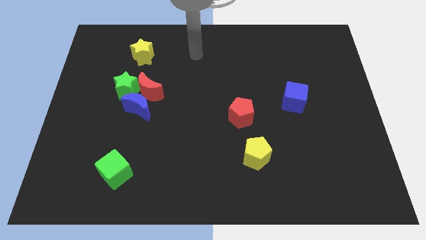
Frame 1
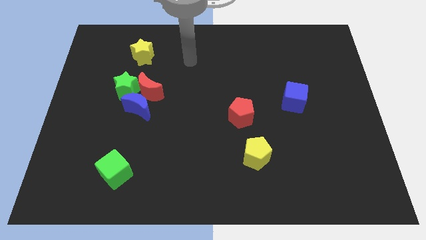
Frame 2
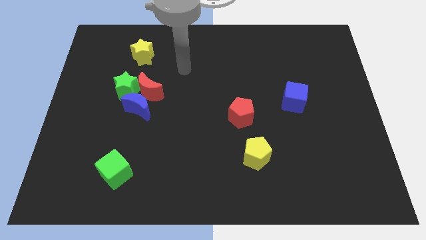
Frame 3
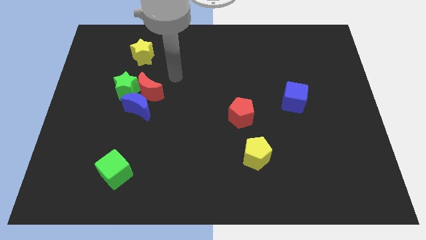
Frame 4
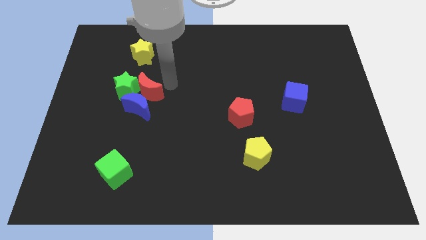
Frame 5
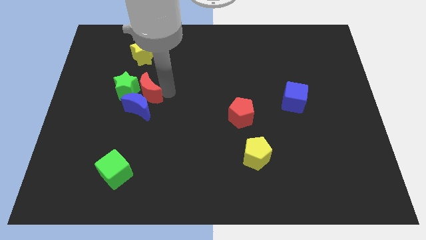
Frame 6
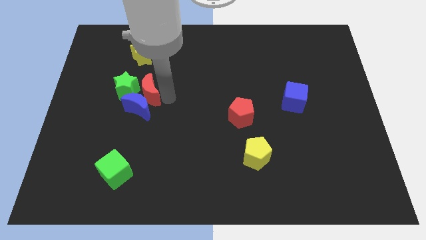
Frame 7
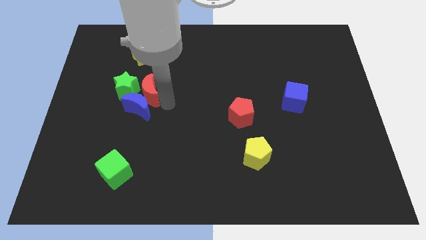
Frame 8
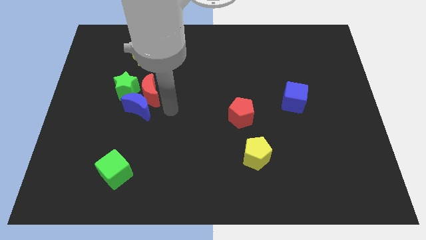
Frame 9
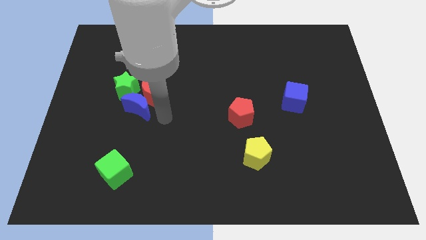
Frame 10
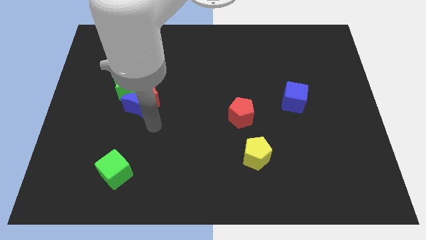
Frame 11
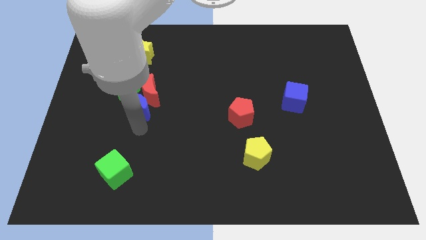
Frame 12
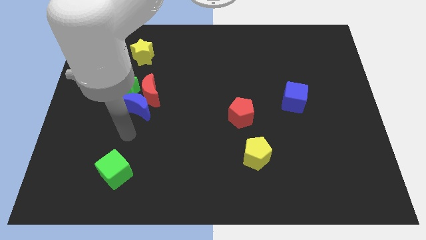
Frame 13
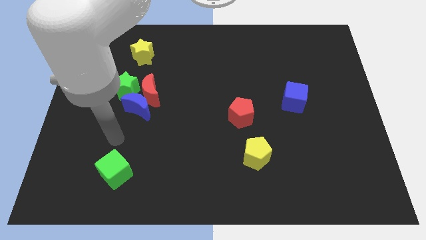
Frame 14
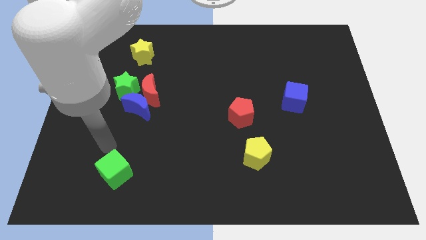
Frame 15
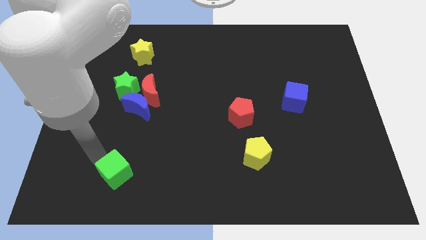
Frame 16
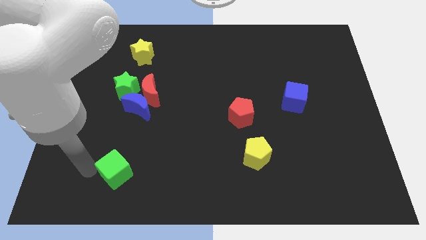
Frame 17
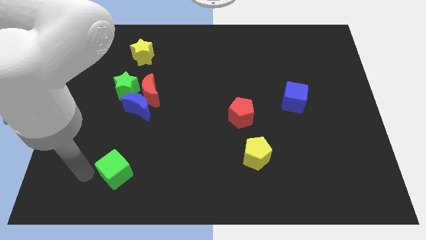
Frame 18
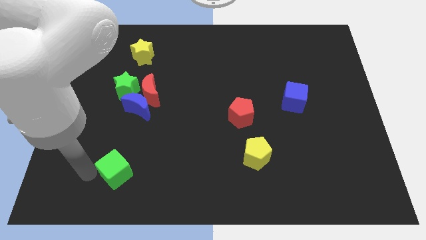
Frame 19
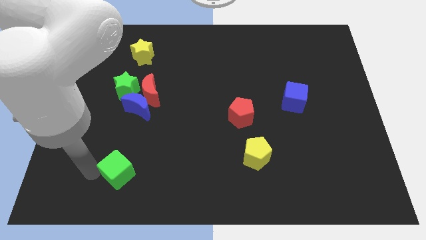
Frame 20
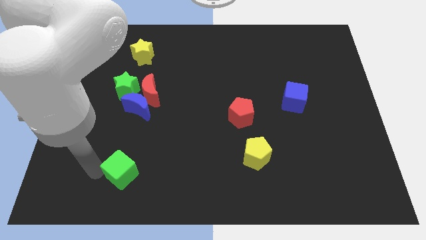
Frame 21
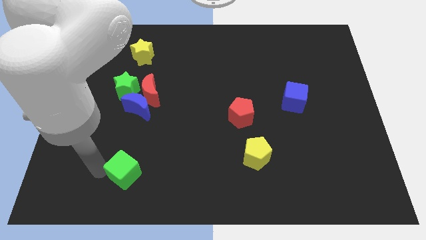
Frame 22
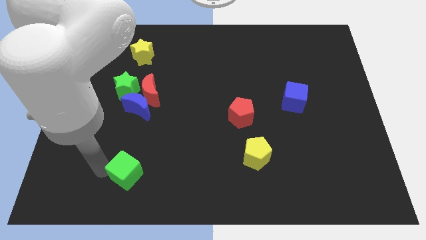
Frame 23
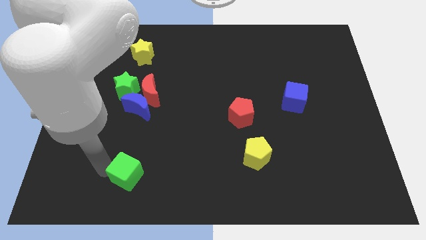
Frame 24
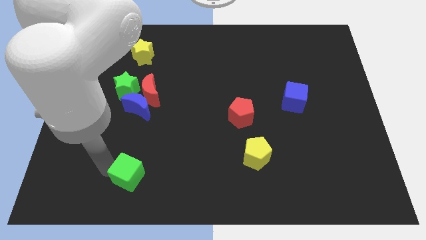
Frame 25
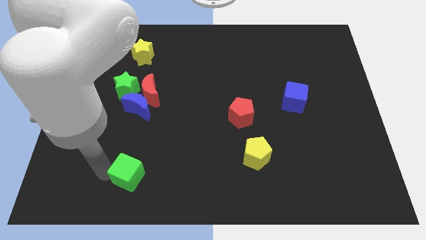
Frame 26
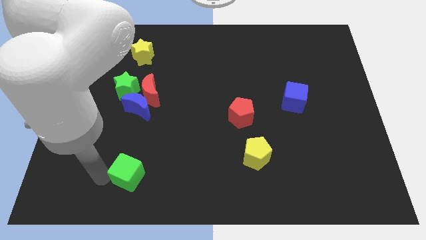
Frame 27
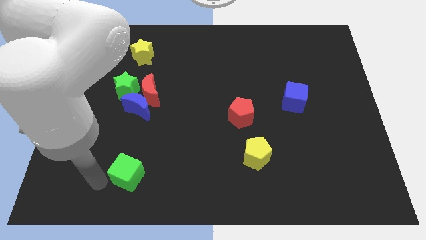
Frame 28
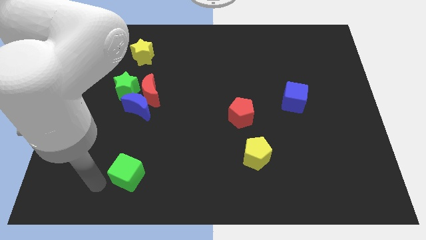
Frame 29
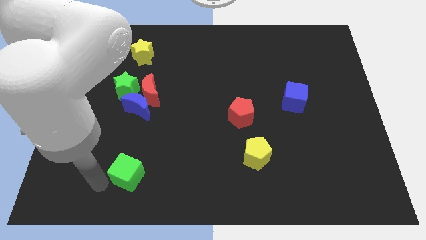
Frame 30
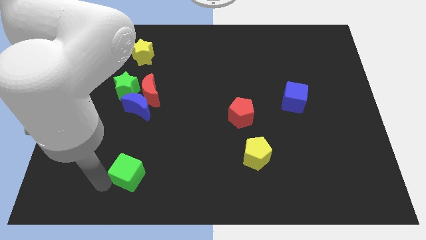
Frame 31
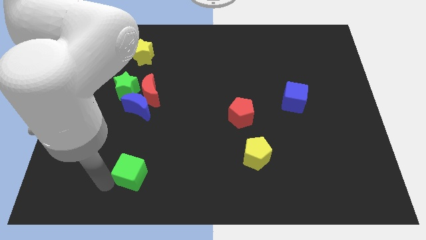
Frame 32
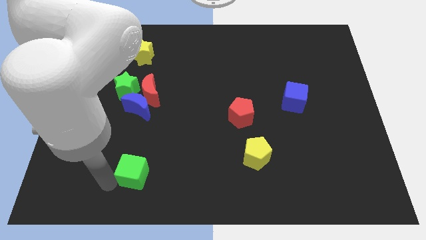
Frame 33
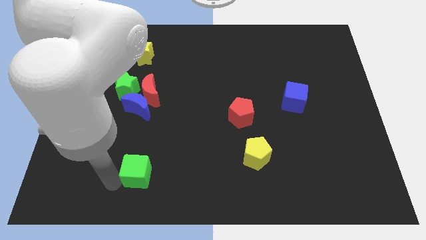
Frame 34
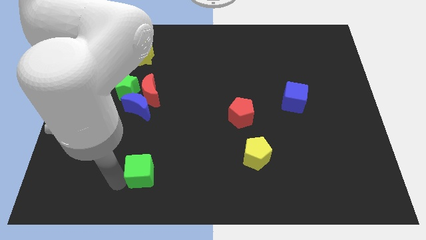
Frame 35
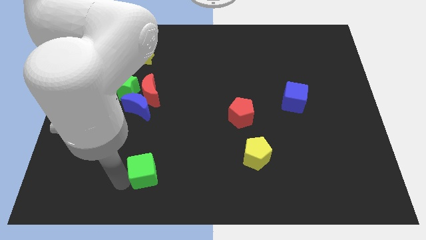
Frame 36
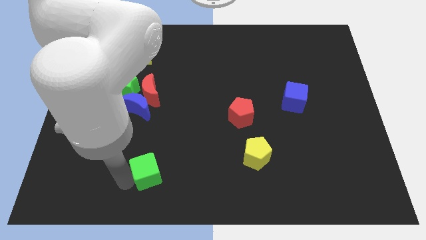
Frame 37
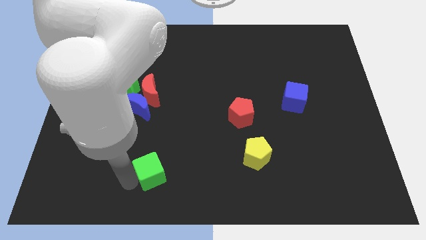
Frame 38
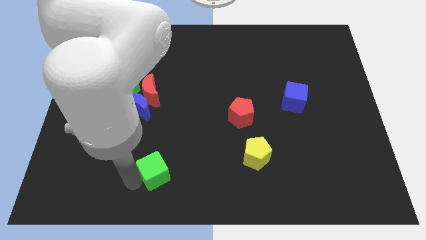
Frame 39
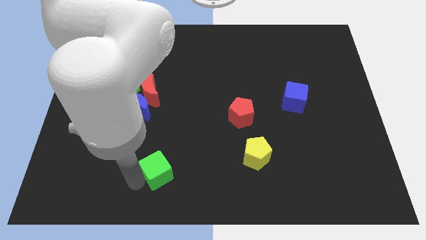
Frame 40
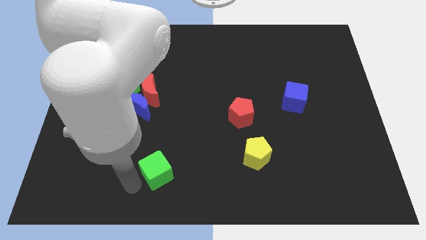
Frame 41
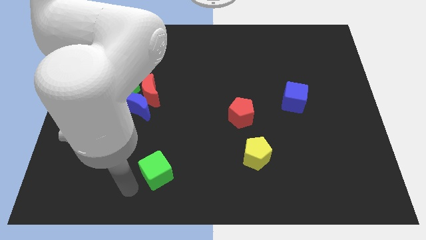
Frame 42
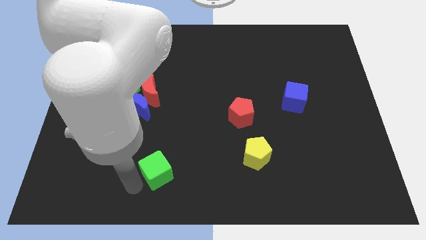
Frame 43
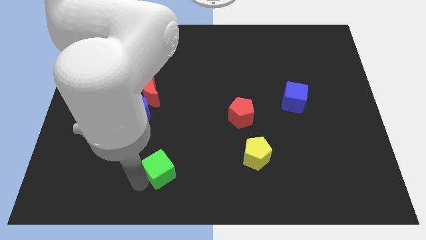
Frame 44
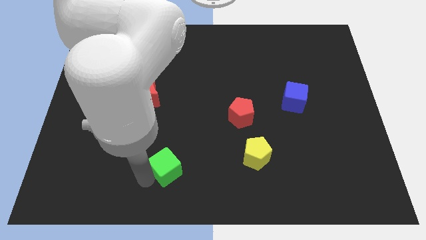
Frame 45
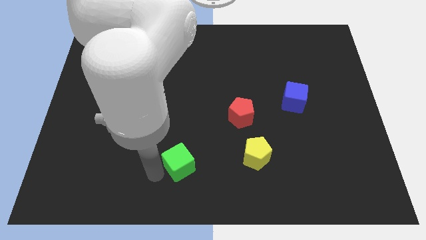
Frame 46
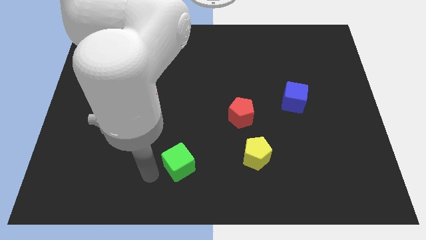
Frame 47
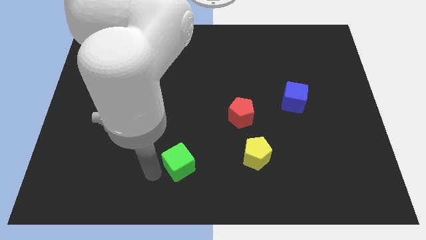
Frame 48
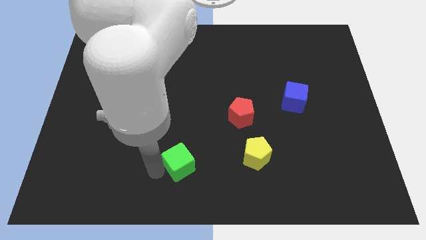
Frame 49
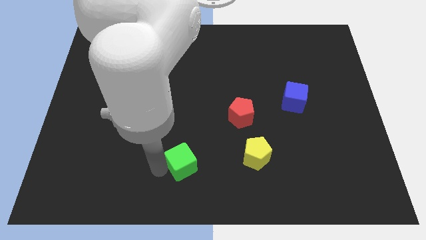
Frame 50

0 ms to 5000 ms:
put the green cube just left of the yellow pentagon

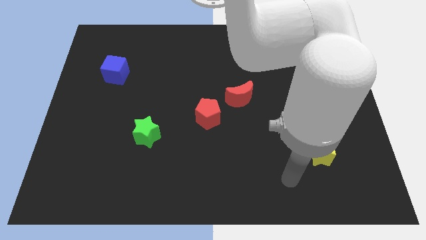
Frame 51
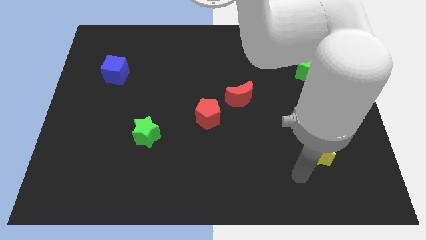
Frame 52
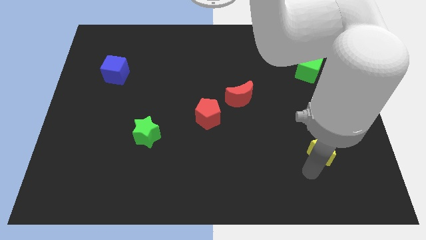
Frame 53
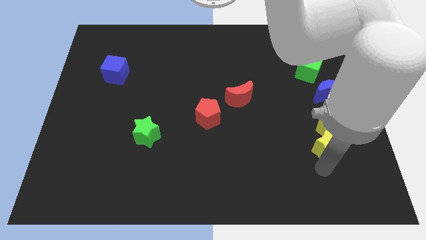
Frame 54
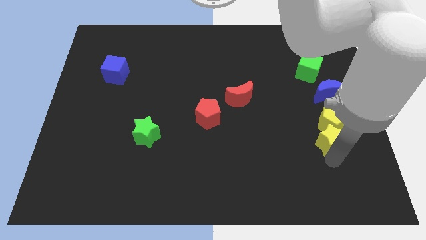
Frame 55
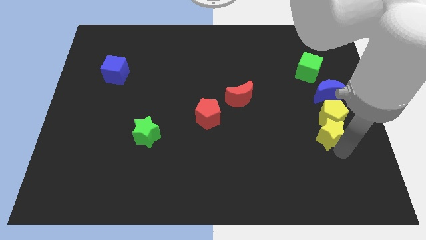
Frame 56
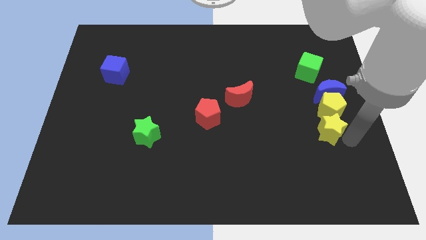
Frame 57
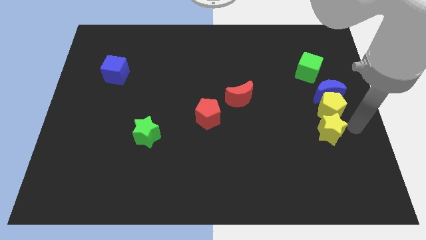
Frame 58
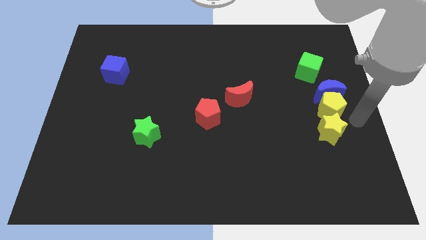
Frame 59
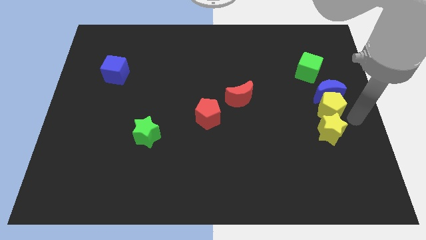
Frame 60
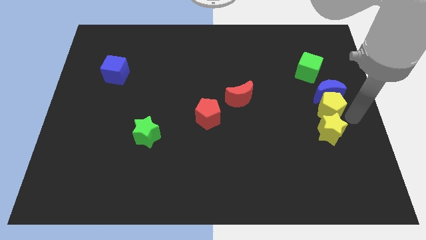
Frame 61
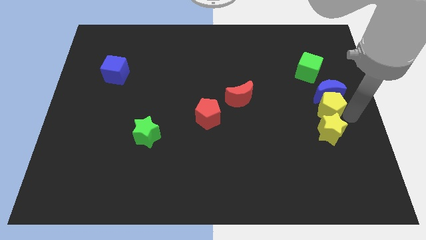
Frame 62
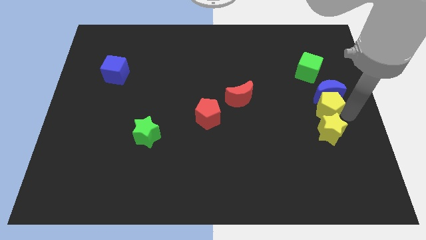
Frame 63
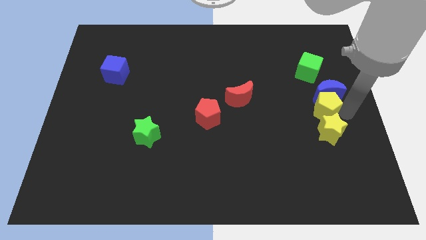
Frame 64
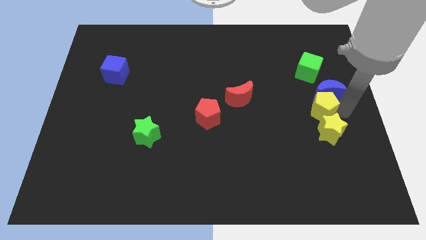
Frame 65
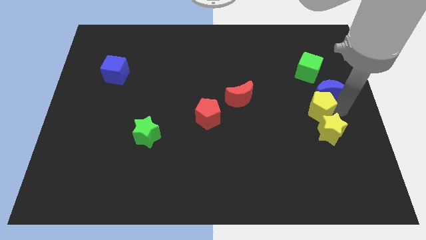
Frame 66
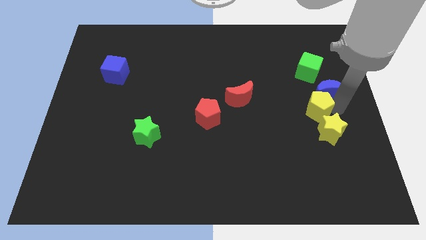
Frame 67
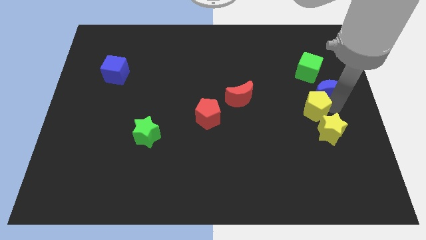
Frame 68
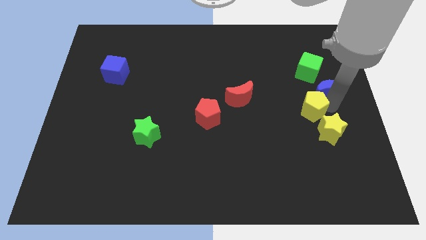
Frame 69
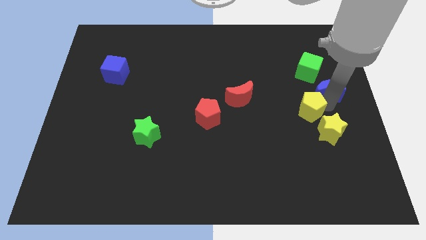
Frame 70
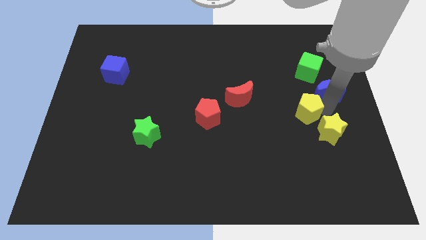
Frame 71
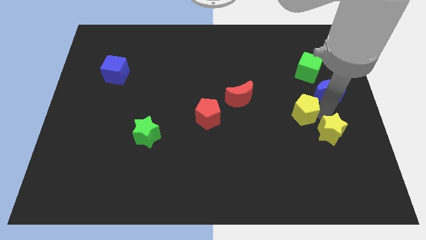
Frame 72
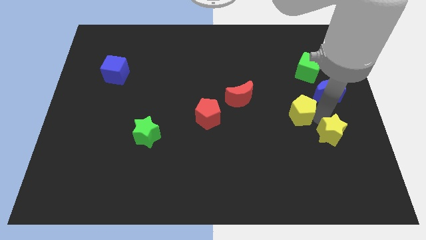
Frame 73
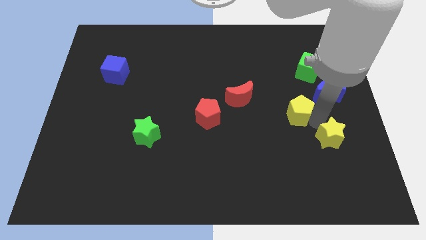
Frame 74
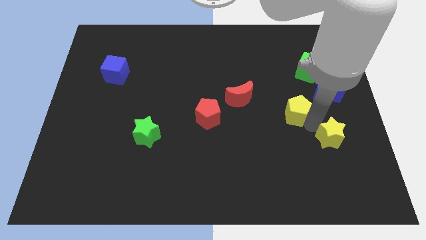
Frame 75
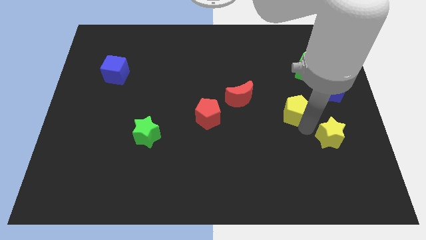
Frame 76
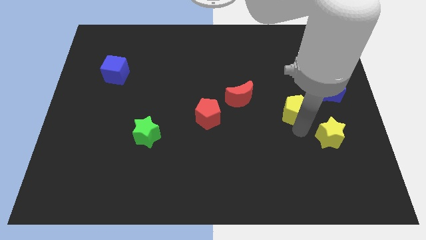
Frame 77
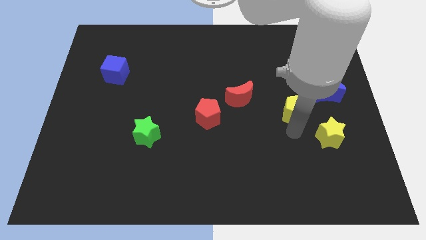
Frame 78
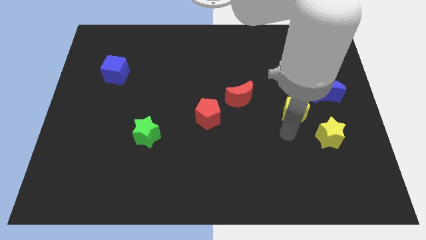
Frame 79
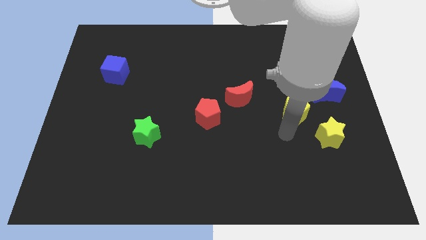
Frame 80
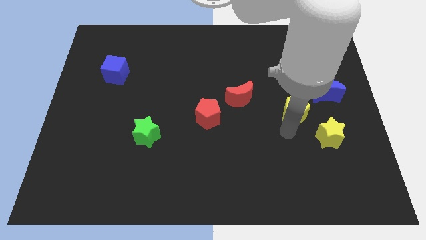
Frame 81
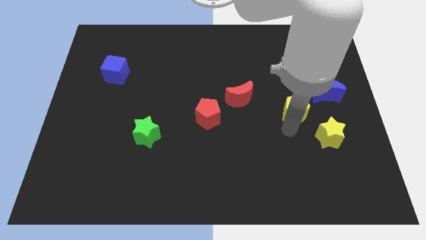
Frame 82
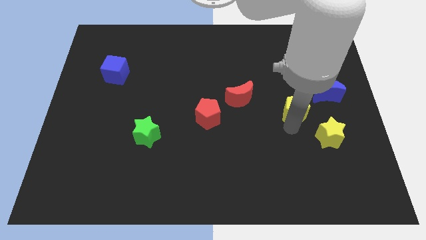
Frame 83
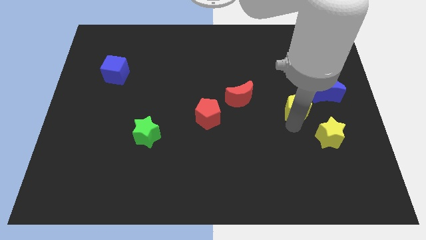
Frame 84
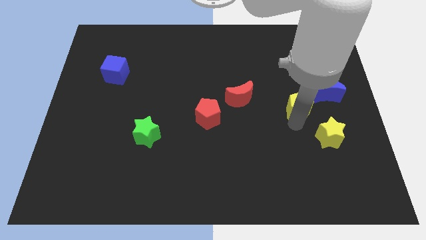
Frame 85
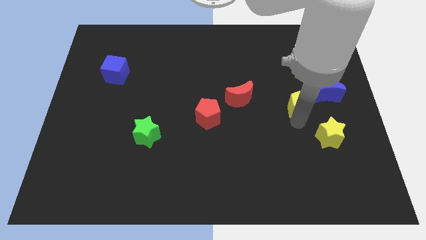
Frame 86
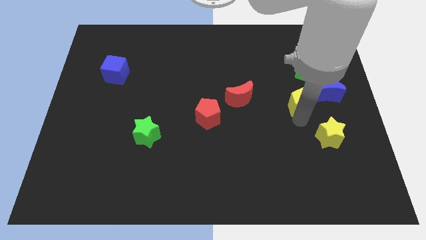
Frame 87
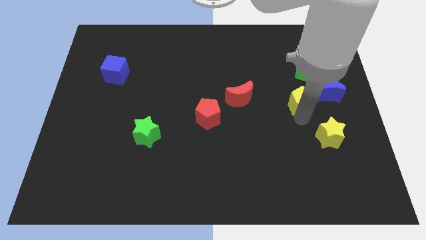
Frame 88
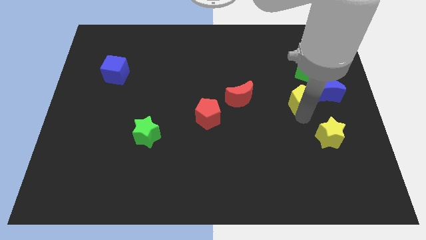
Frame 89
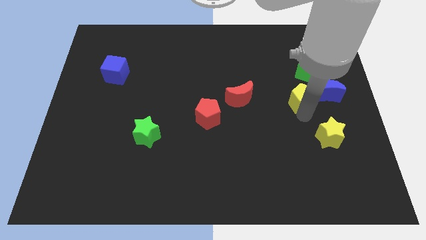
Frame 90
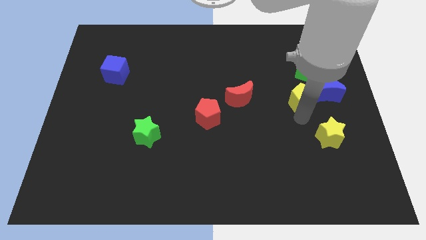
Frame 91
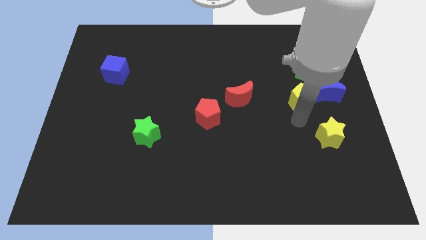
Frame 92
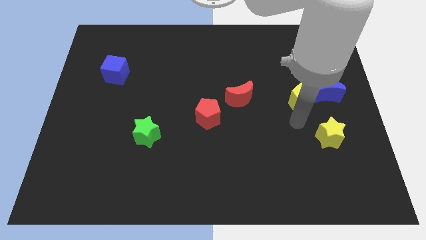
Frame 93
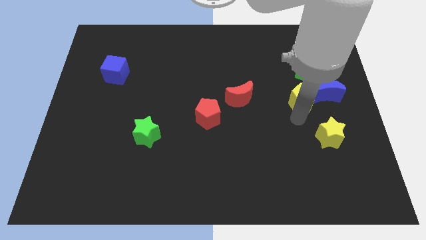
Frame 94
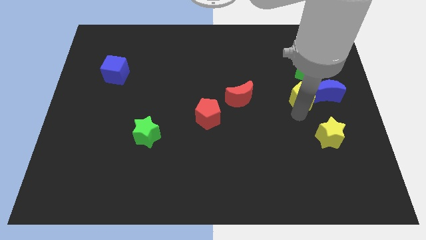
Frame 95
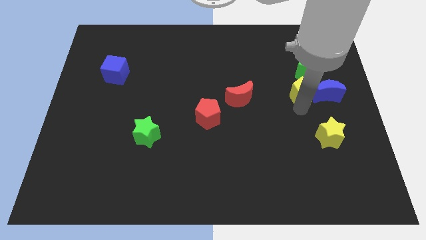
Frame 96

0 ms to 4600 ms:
move the yellow pentagon to the top left of the blue moon
